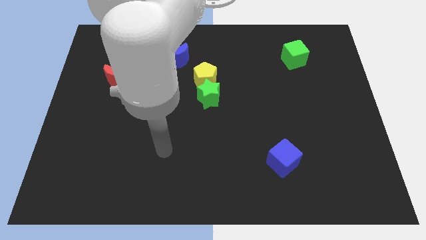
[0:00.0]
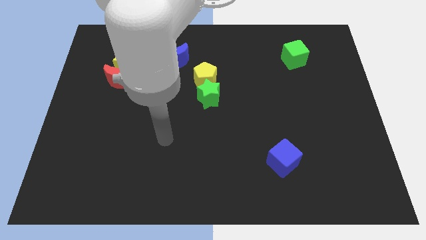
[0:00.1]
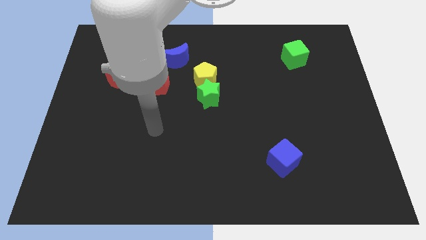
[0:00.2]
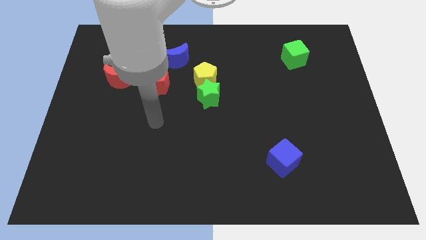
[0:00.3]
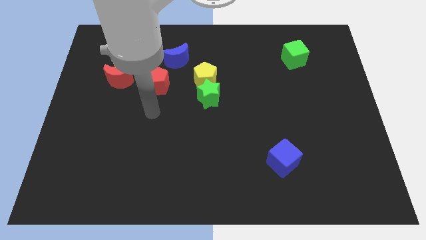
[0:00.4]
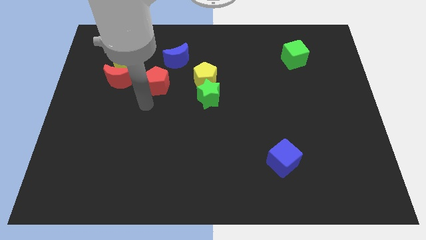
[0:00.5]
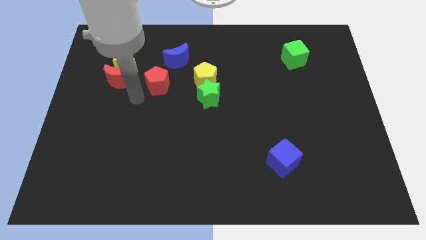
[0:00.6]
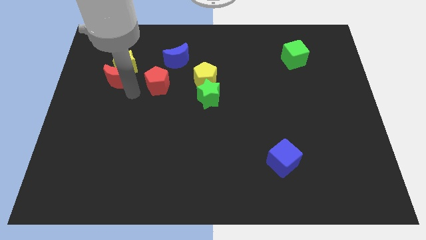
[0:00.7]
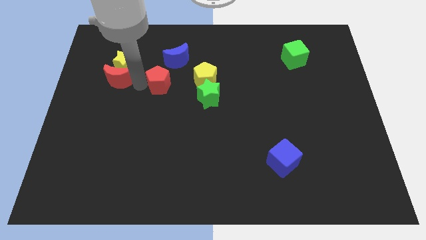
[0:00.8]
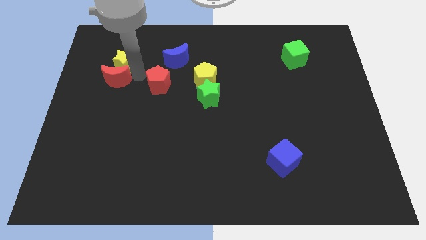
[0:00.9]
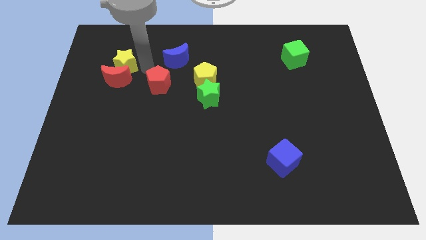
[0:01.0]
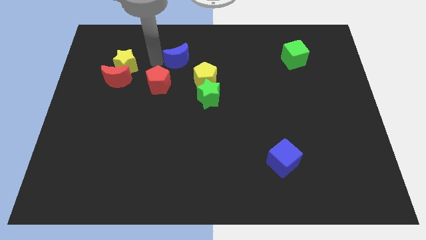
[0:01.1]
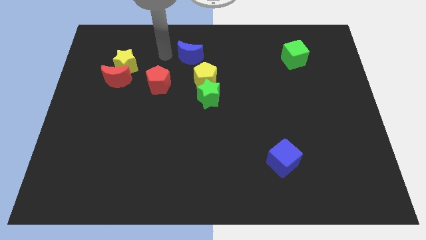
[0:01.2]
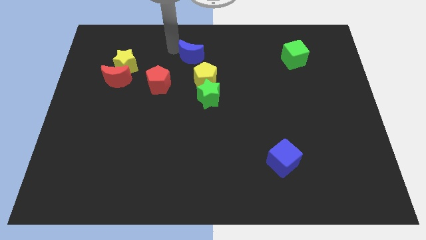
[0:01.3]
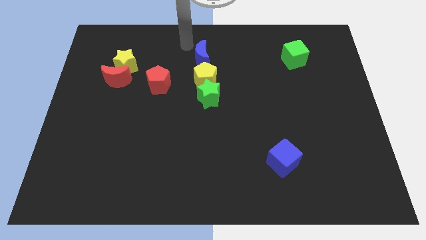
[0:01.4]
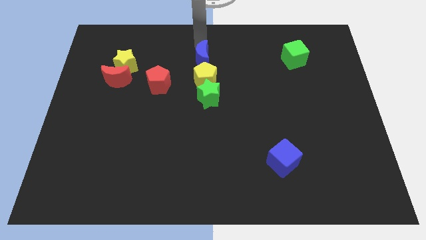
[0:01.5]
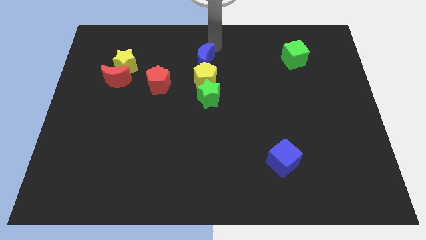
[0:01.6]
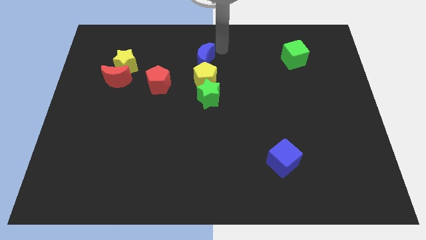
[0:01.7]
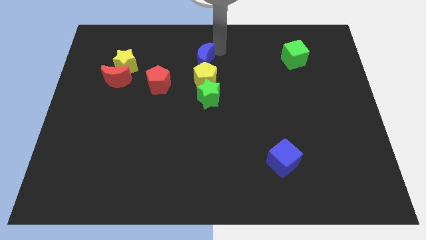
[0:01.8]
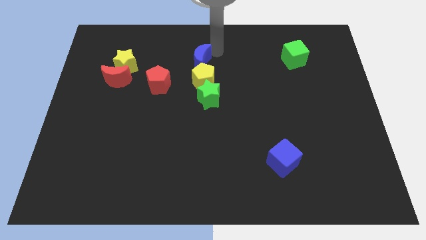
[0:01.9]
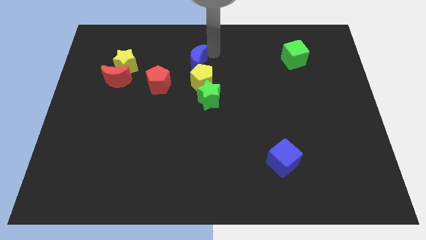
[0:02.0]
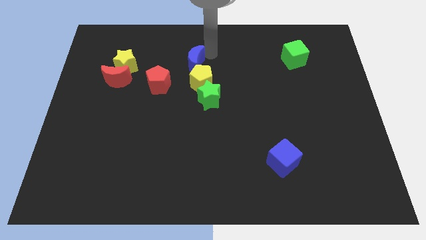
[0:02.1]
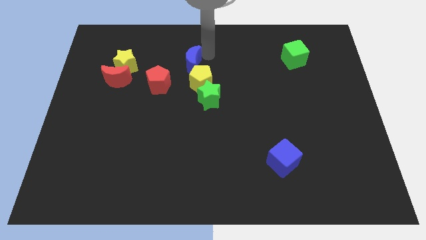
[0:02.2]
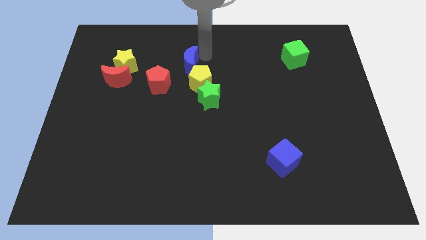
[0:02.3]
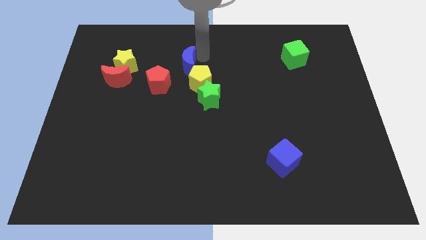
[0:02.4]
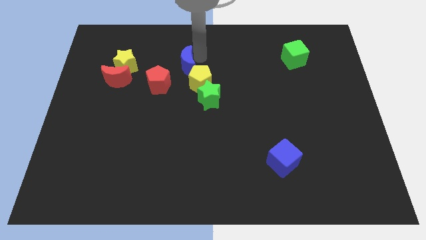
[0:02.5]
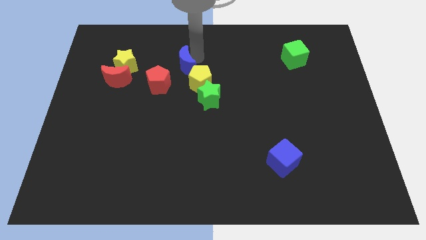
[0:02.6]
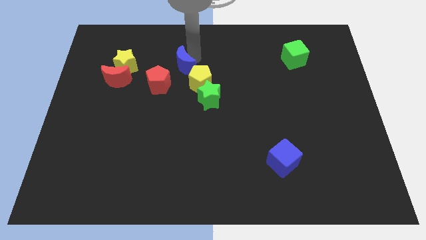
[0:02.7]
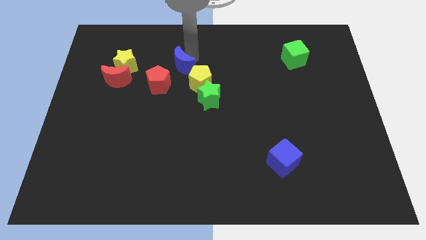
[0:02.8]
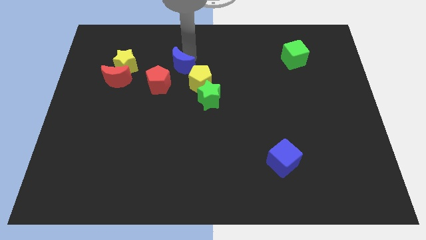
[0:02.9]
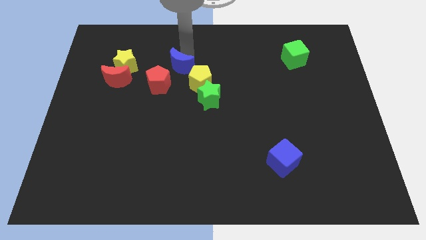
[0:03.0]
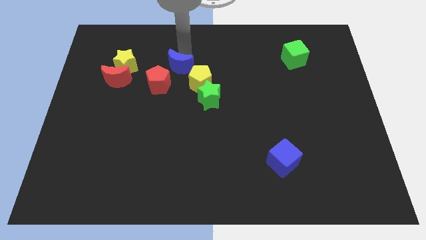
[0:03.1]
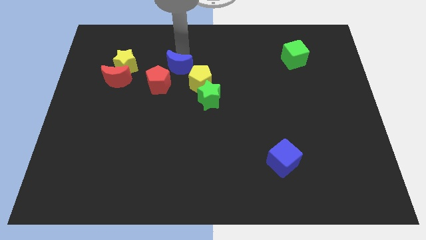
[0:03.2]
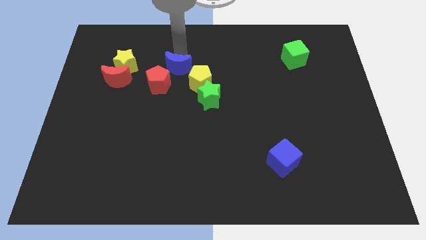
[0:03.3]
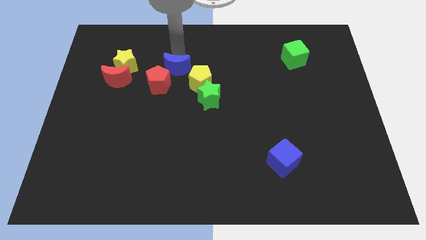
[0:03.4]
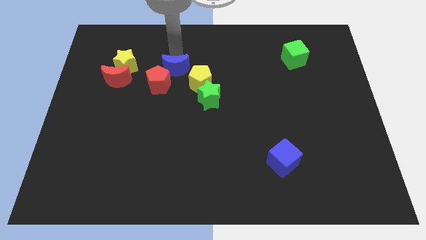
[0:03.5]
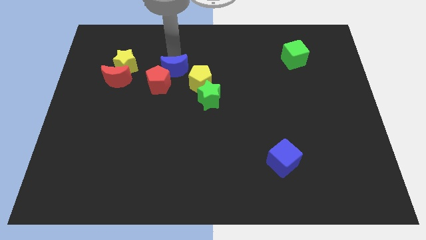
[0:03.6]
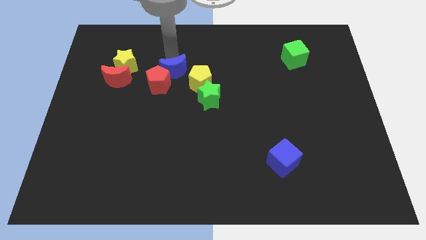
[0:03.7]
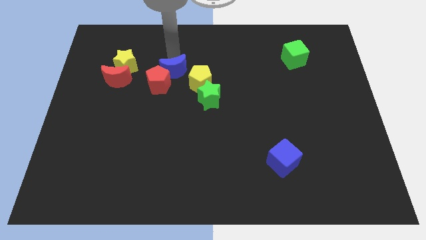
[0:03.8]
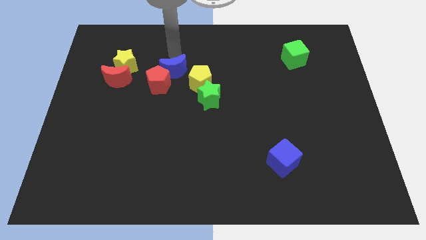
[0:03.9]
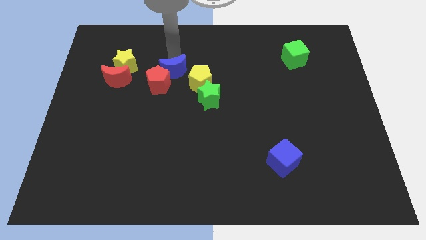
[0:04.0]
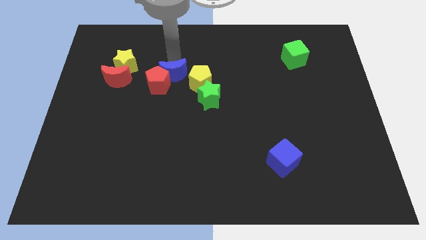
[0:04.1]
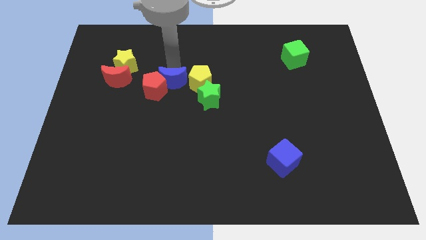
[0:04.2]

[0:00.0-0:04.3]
move the blue moon down somewhat

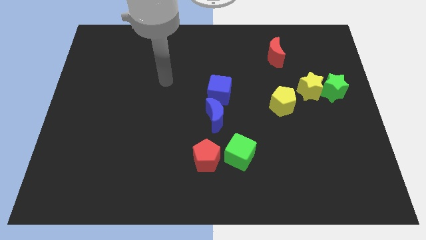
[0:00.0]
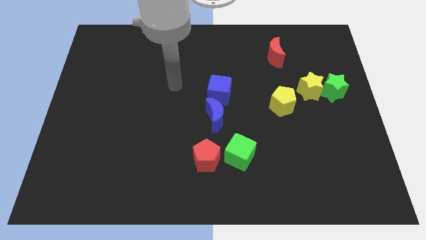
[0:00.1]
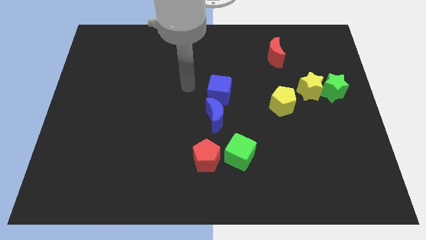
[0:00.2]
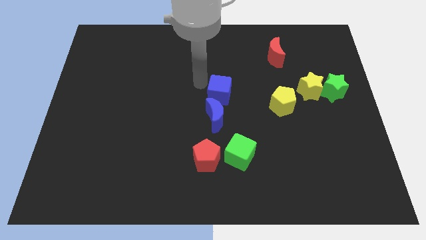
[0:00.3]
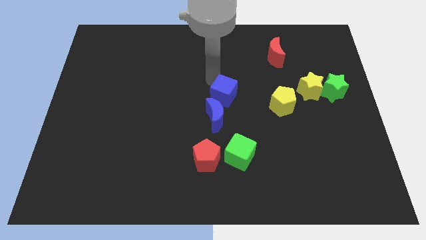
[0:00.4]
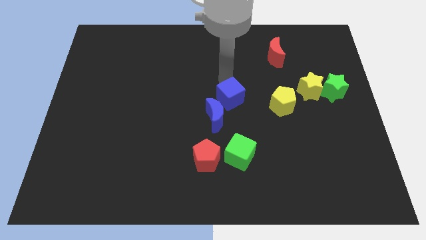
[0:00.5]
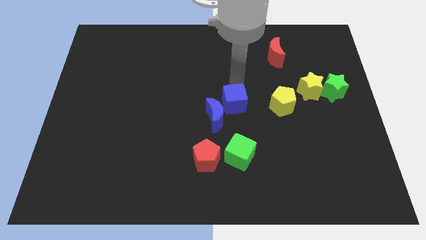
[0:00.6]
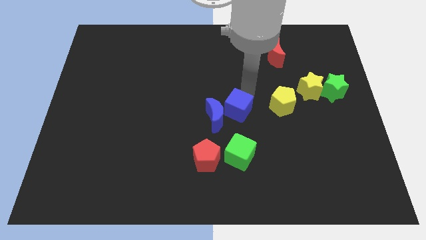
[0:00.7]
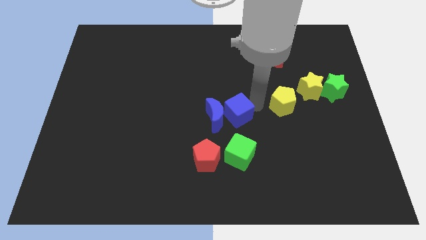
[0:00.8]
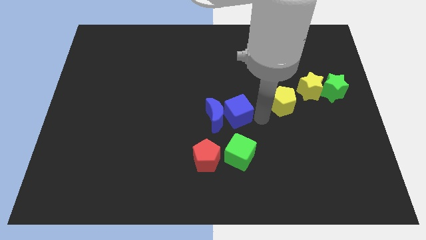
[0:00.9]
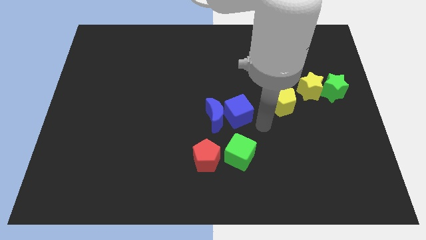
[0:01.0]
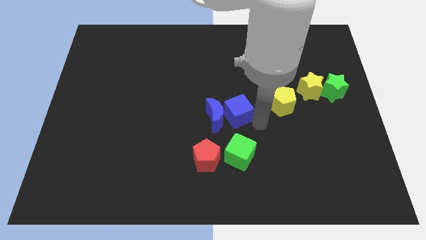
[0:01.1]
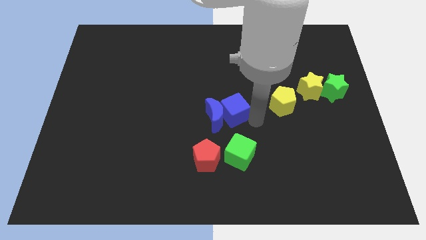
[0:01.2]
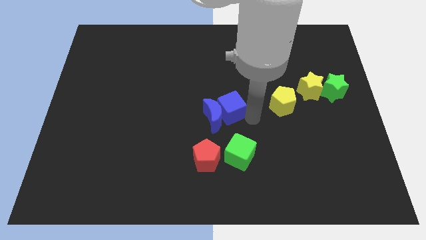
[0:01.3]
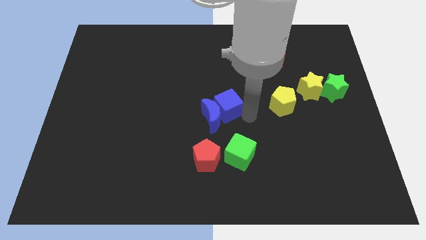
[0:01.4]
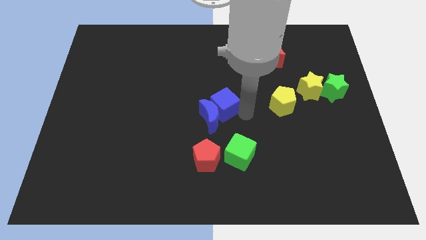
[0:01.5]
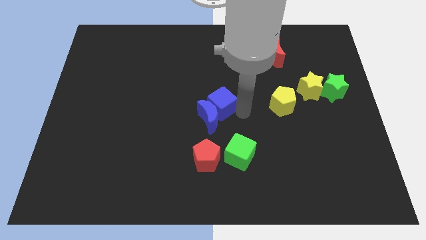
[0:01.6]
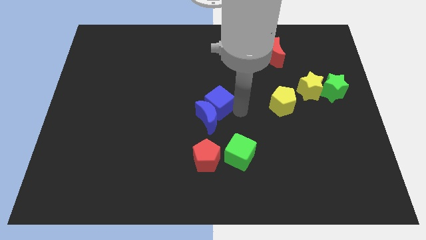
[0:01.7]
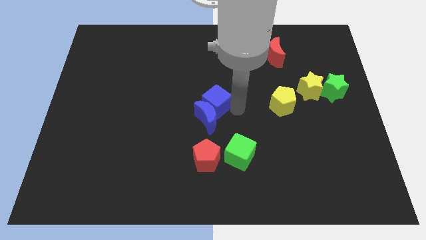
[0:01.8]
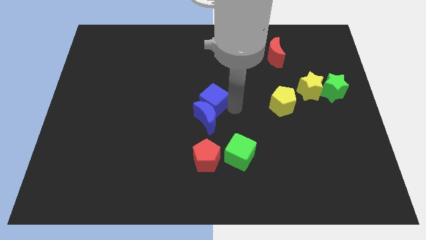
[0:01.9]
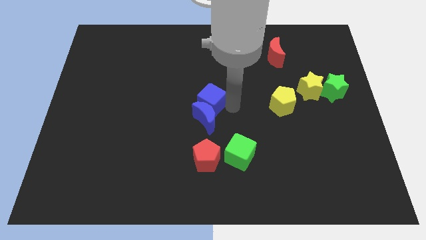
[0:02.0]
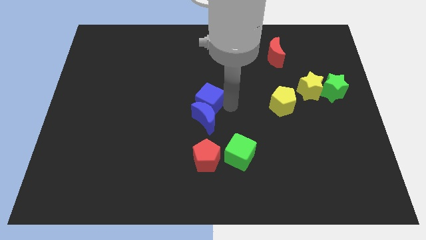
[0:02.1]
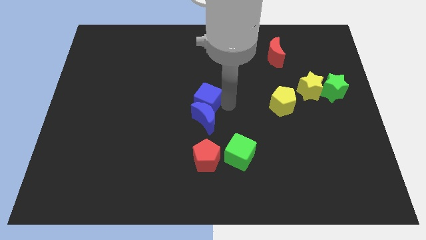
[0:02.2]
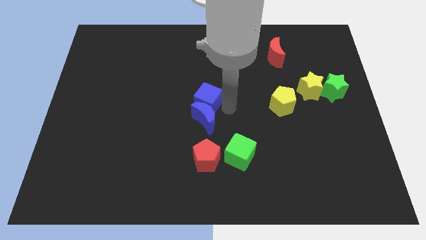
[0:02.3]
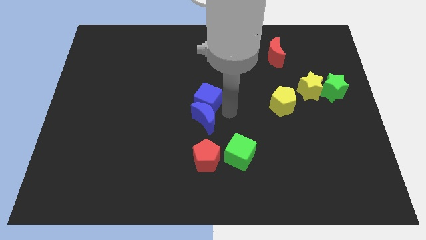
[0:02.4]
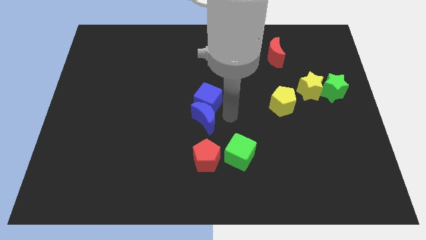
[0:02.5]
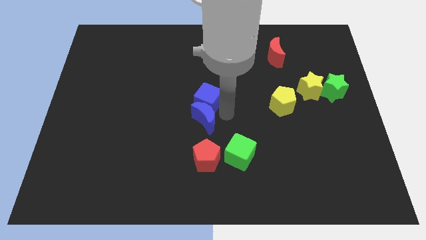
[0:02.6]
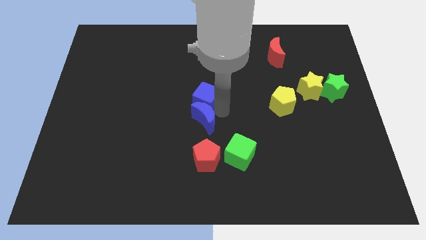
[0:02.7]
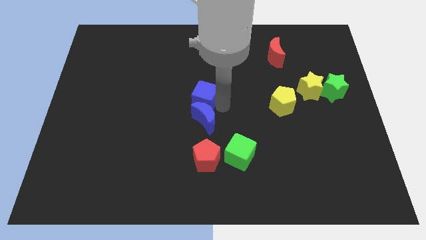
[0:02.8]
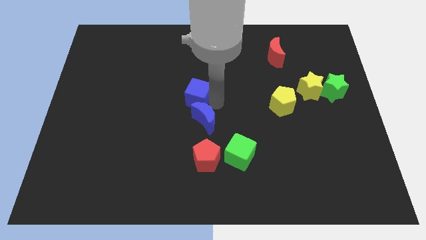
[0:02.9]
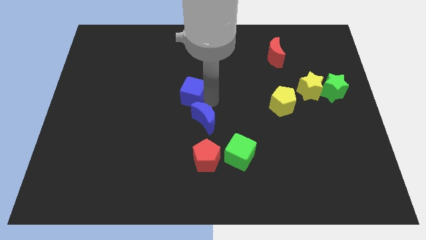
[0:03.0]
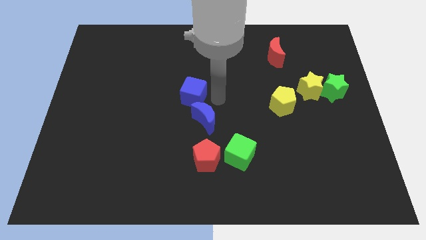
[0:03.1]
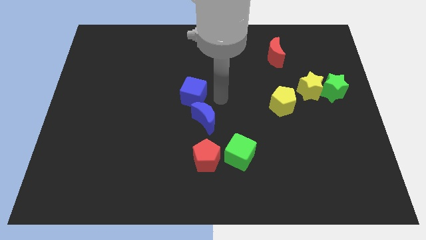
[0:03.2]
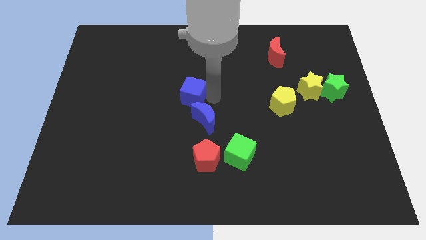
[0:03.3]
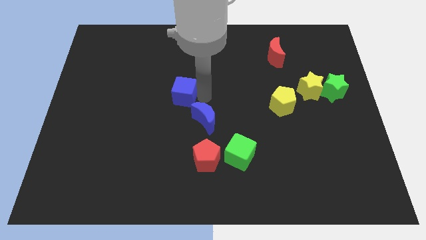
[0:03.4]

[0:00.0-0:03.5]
slightly move the blue cube left
